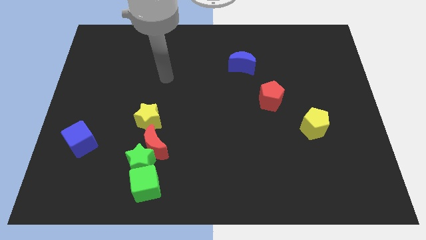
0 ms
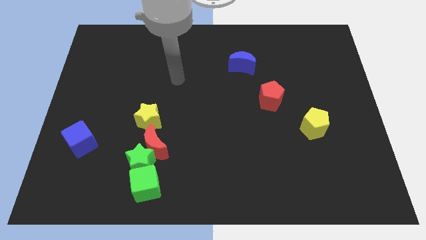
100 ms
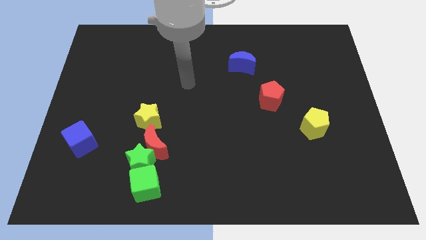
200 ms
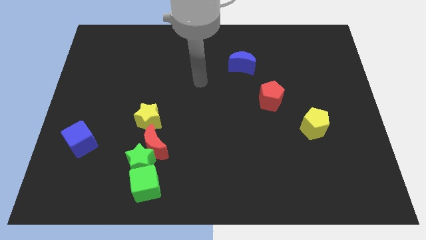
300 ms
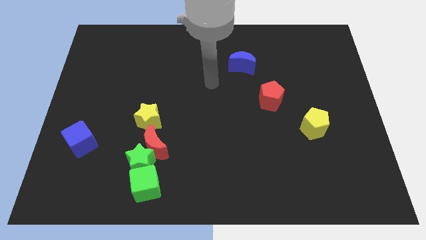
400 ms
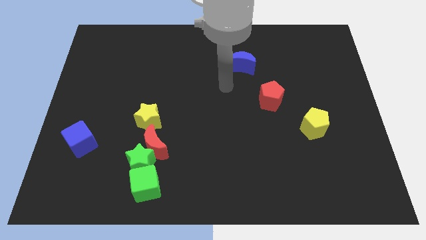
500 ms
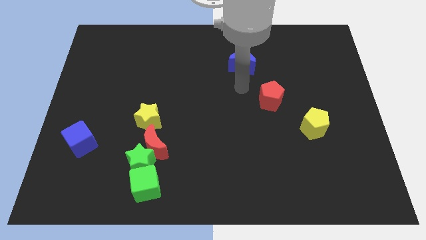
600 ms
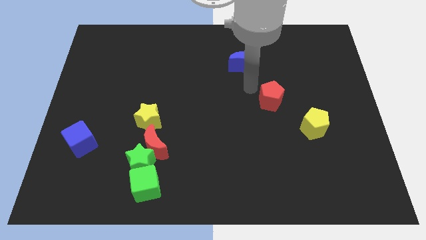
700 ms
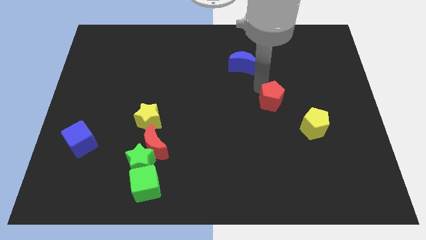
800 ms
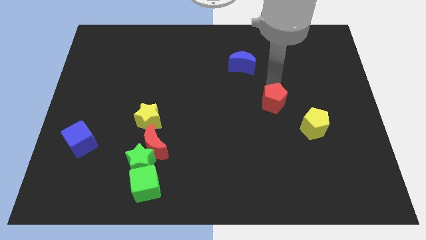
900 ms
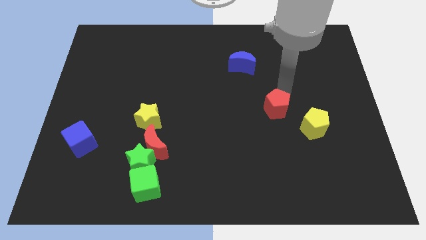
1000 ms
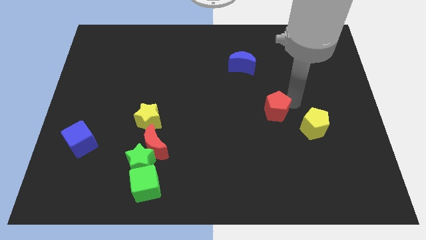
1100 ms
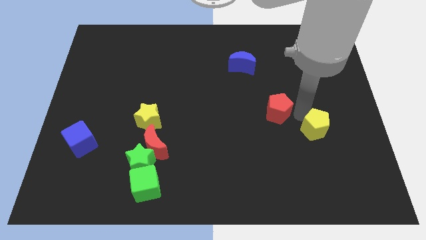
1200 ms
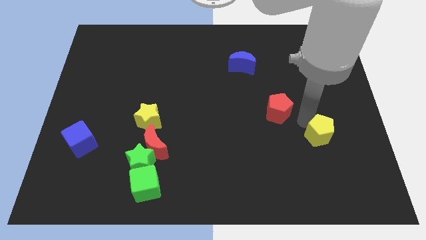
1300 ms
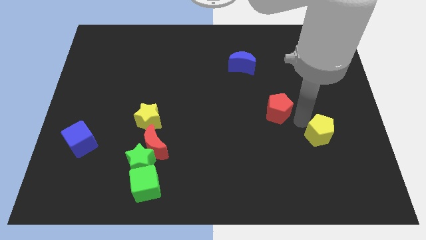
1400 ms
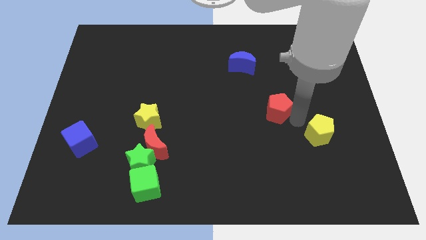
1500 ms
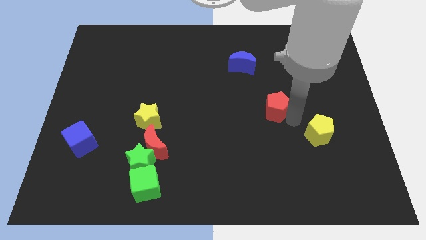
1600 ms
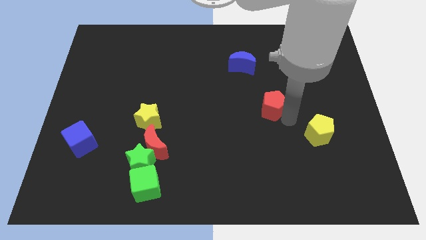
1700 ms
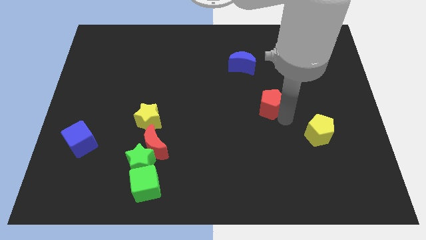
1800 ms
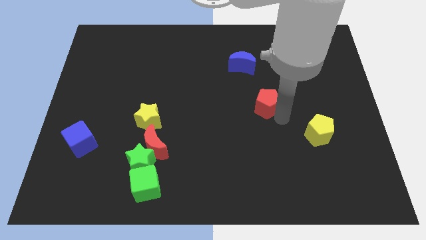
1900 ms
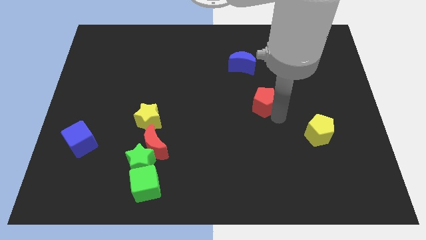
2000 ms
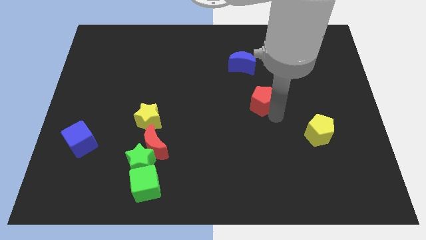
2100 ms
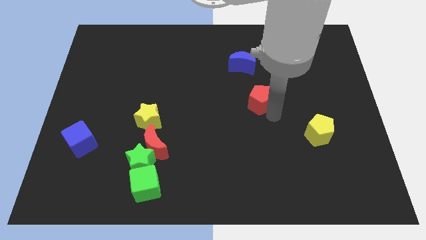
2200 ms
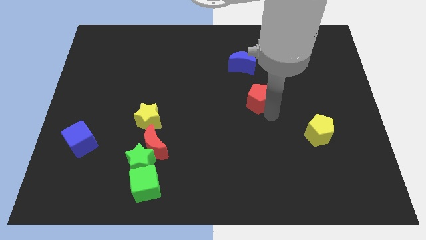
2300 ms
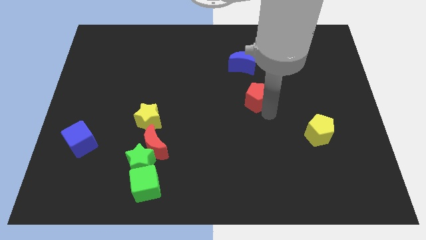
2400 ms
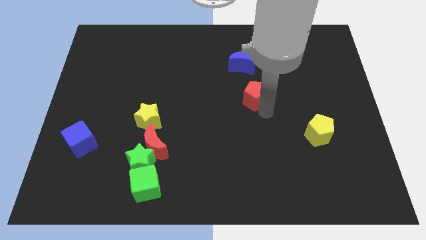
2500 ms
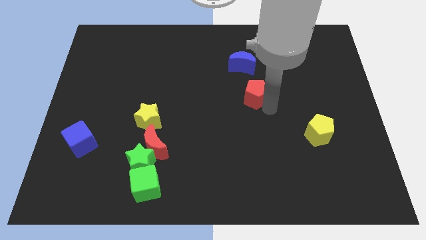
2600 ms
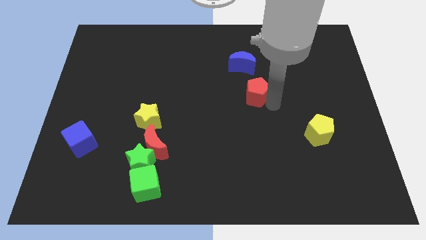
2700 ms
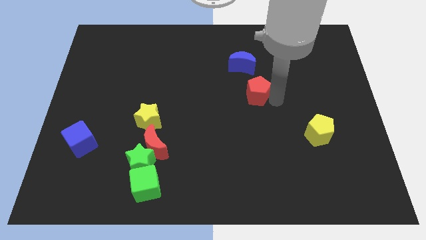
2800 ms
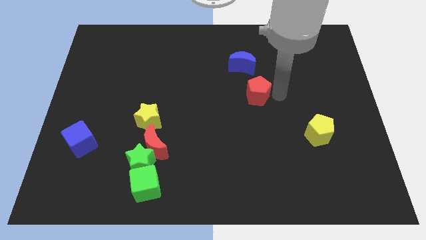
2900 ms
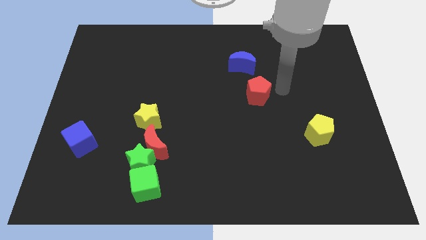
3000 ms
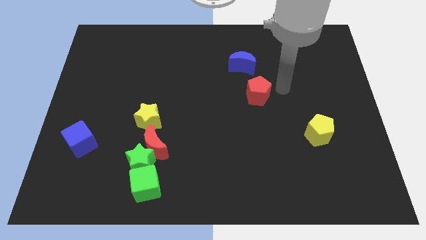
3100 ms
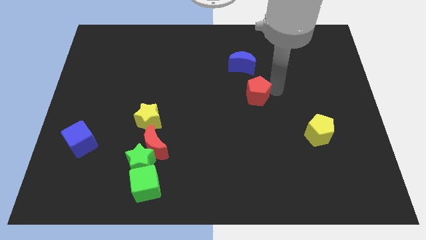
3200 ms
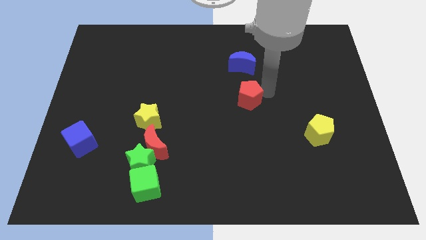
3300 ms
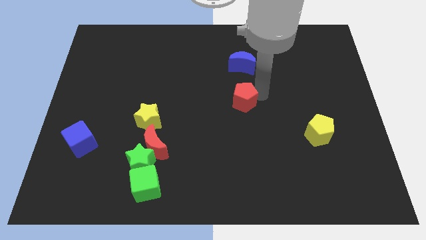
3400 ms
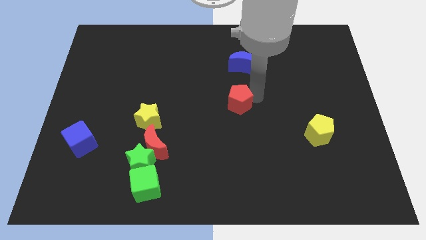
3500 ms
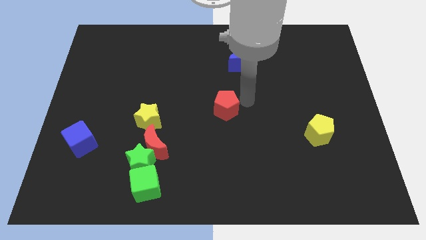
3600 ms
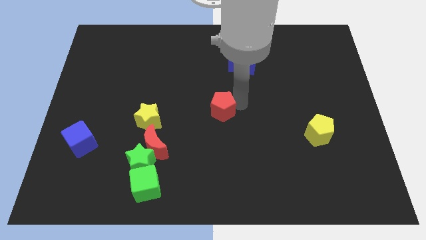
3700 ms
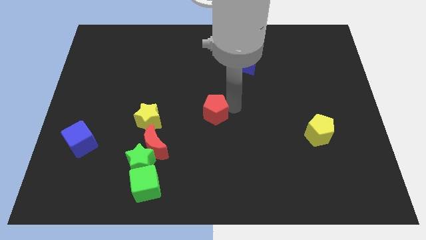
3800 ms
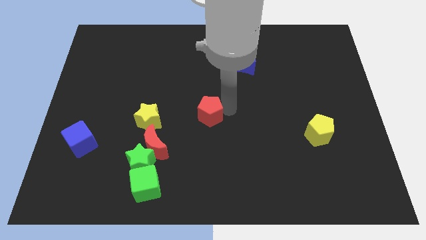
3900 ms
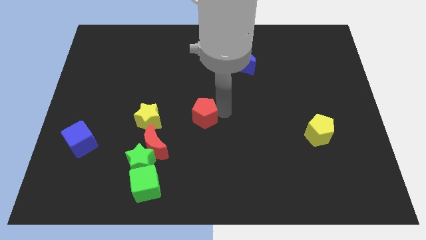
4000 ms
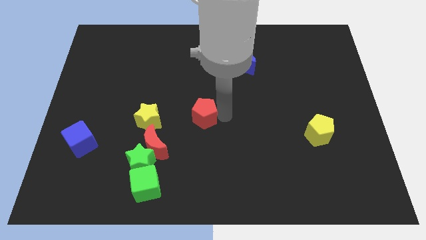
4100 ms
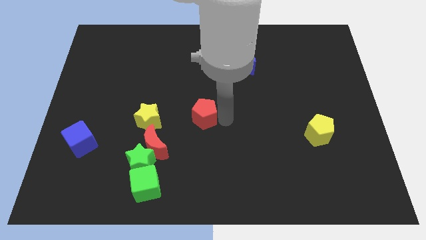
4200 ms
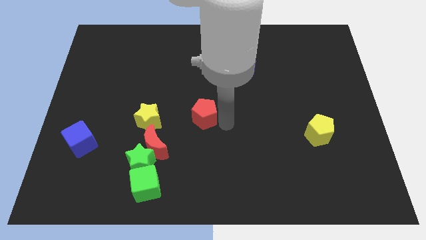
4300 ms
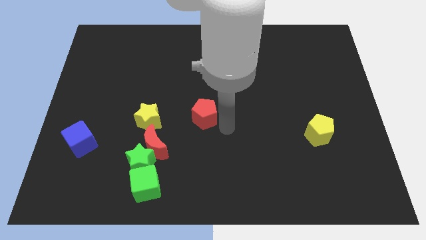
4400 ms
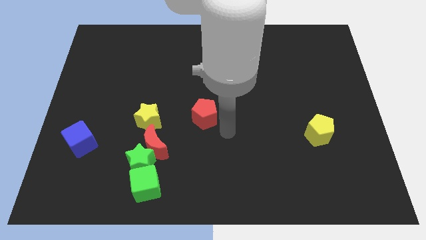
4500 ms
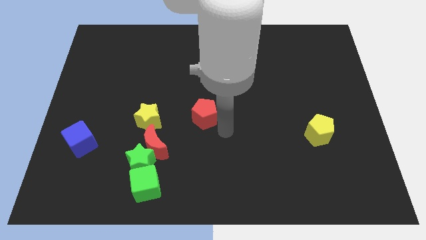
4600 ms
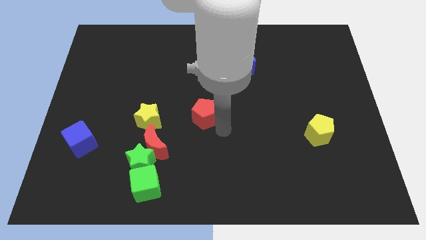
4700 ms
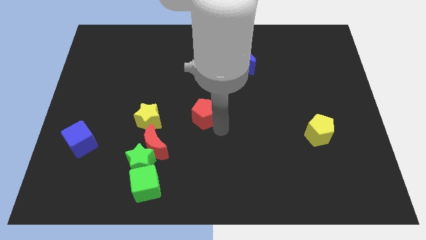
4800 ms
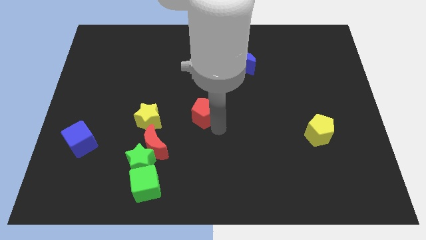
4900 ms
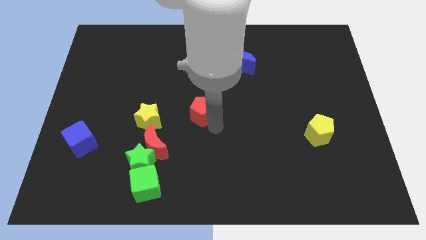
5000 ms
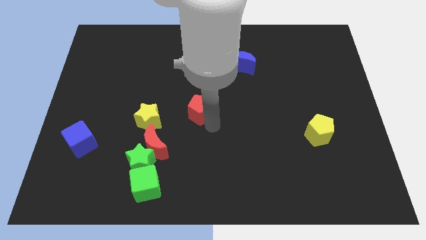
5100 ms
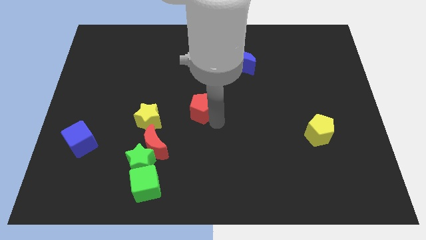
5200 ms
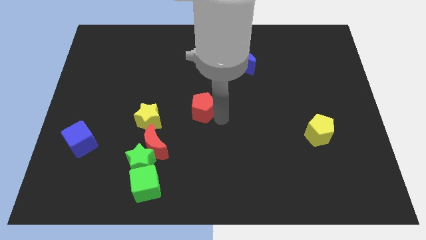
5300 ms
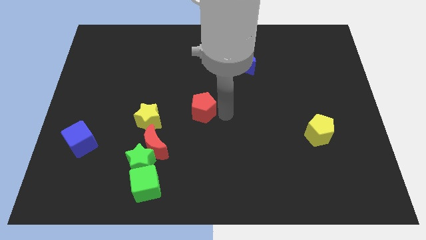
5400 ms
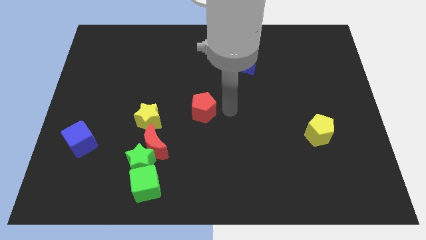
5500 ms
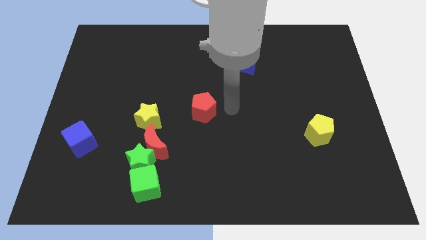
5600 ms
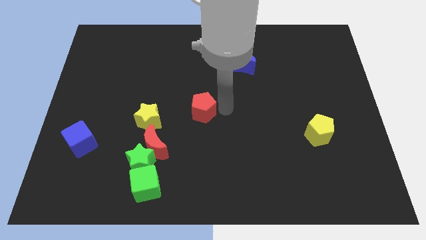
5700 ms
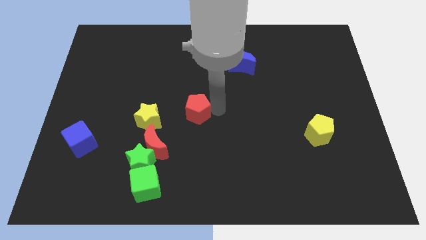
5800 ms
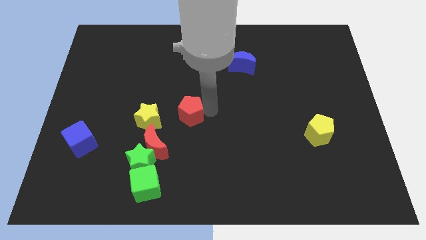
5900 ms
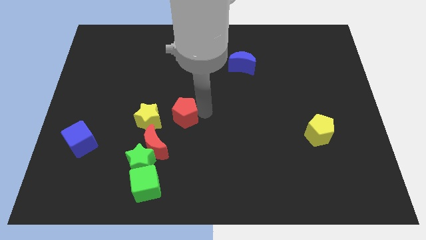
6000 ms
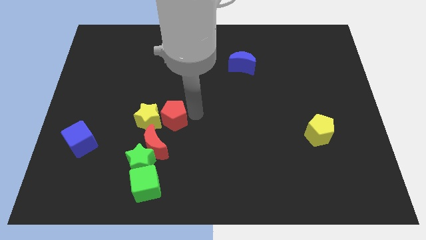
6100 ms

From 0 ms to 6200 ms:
put the red pentagon to the yellow star

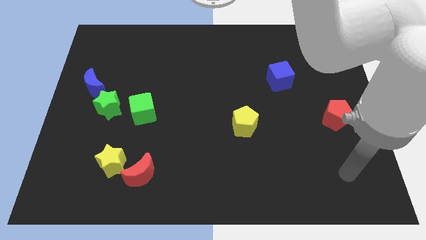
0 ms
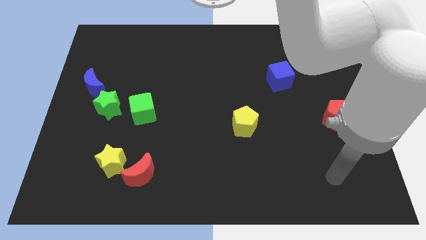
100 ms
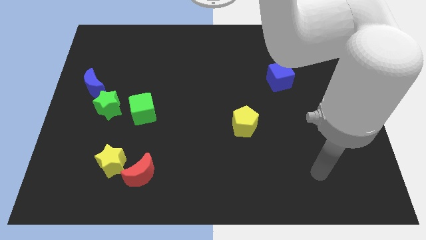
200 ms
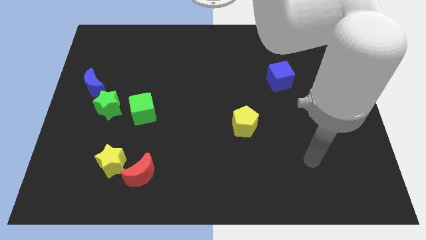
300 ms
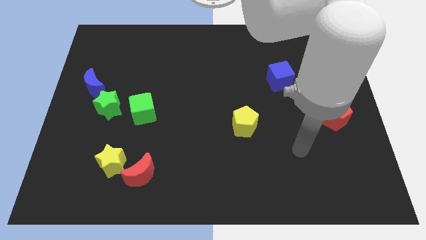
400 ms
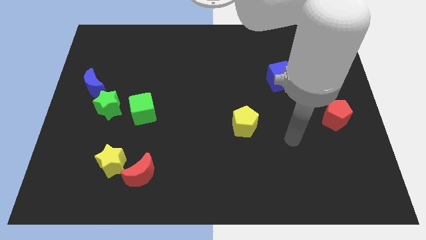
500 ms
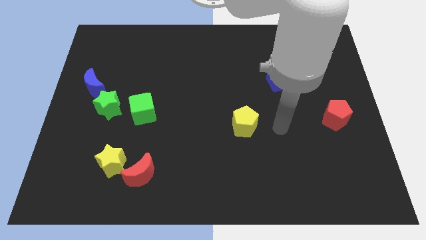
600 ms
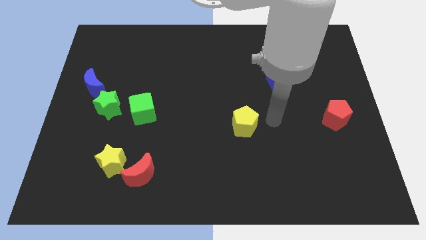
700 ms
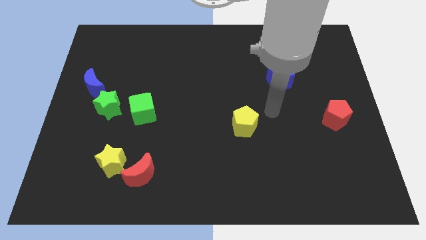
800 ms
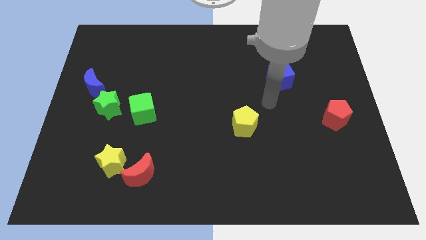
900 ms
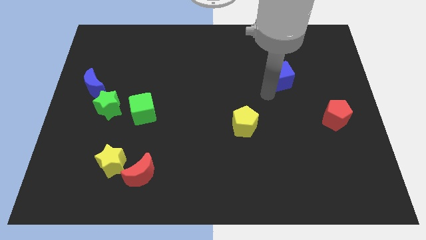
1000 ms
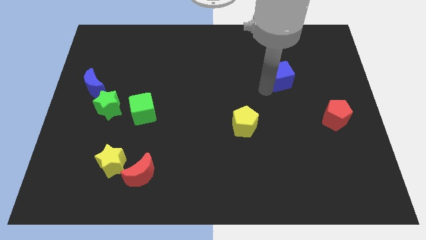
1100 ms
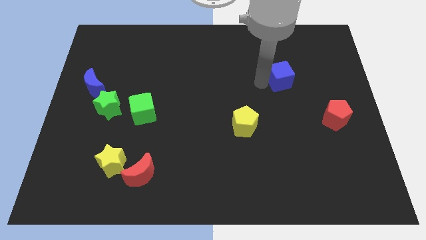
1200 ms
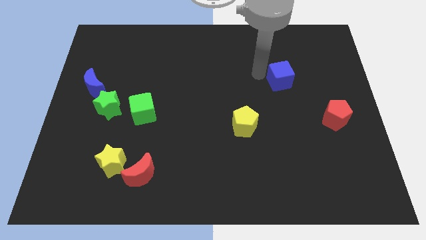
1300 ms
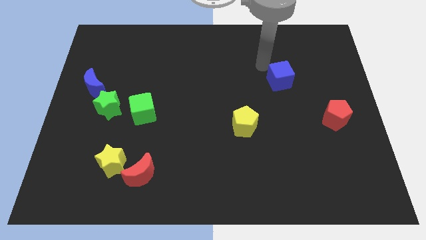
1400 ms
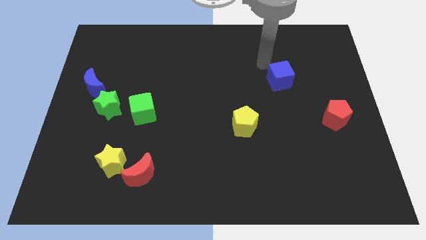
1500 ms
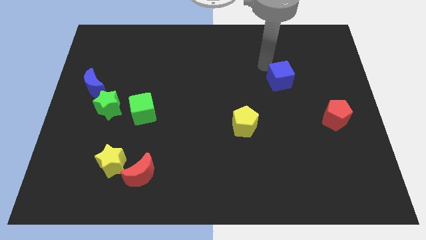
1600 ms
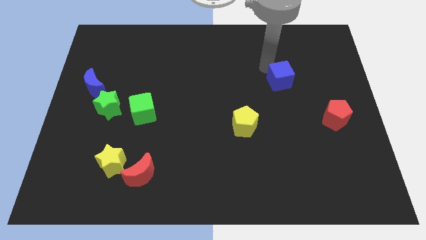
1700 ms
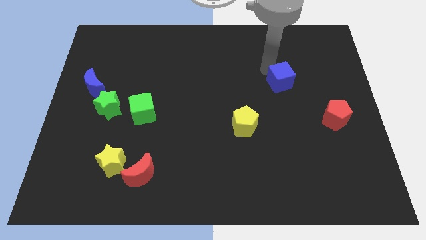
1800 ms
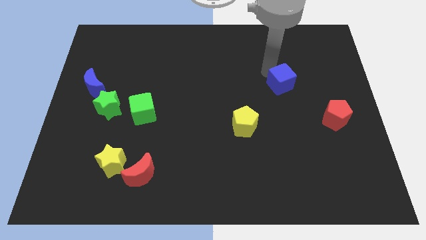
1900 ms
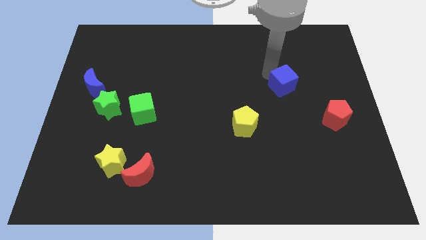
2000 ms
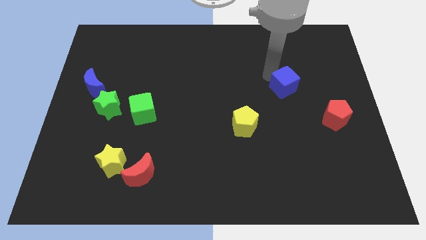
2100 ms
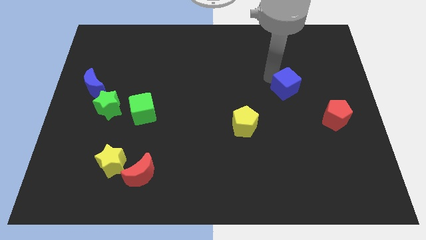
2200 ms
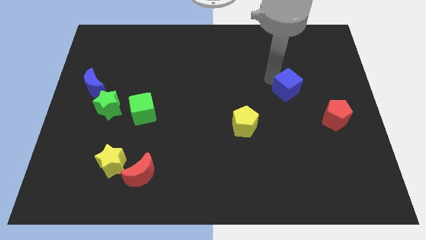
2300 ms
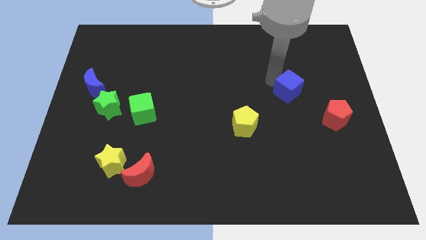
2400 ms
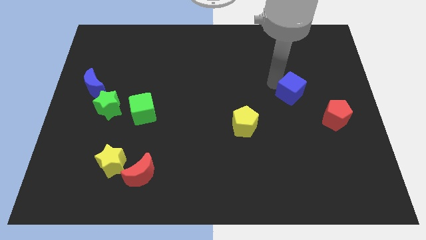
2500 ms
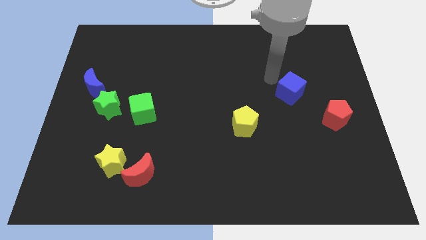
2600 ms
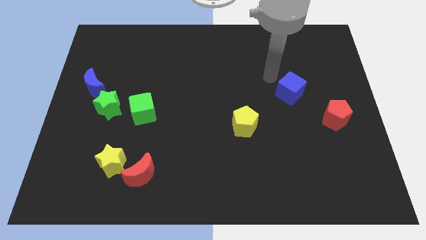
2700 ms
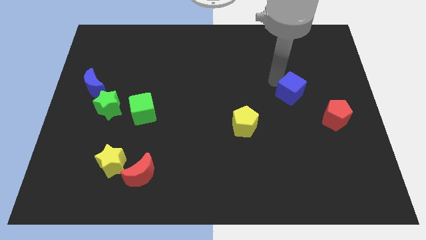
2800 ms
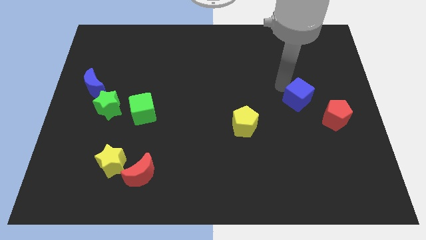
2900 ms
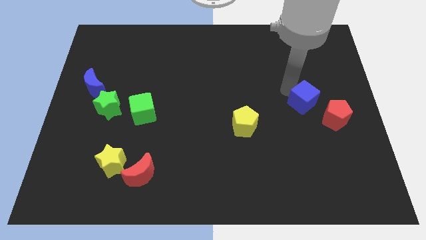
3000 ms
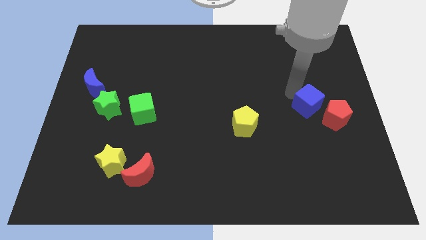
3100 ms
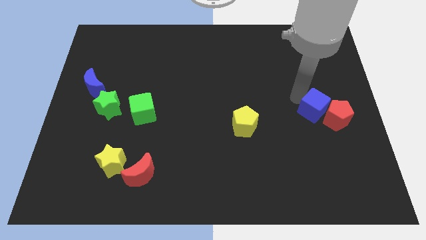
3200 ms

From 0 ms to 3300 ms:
move the blue cube next to the red pentagon
